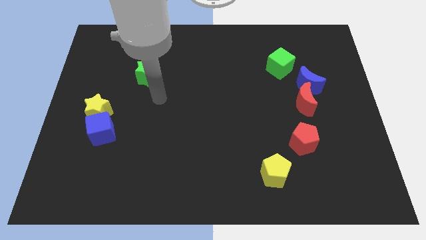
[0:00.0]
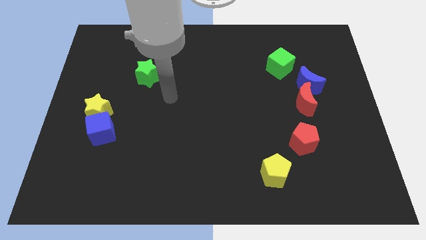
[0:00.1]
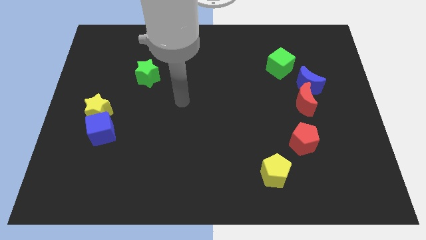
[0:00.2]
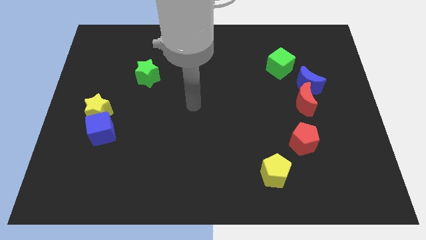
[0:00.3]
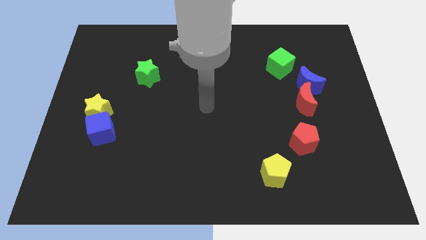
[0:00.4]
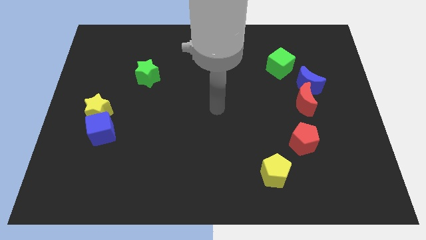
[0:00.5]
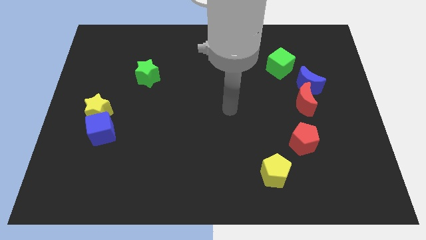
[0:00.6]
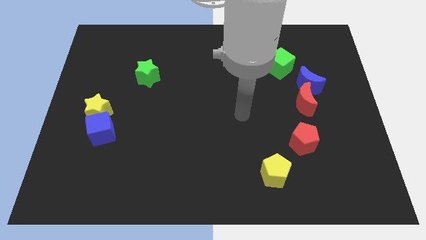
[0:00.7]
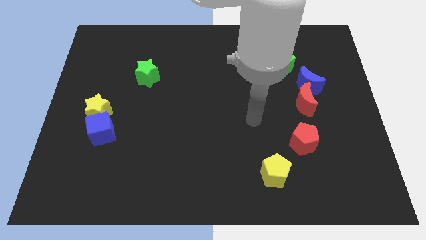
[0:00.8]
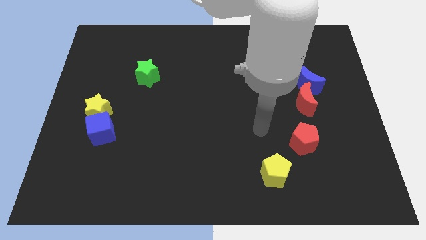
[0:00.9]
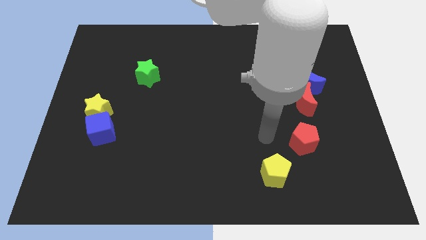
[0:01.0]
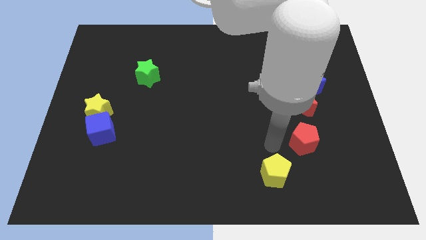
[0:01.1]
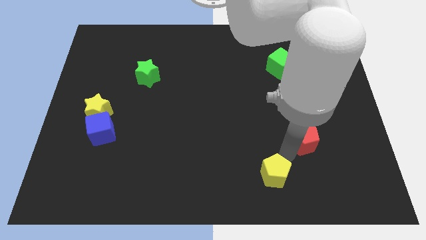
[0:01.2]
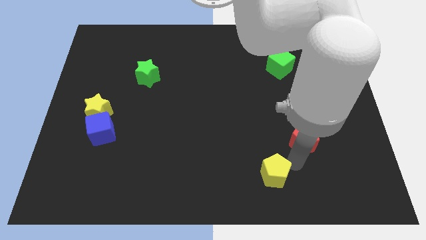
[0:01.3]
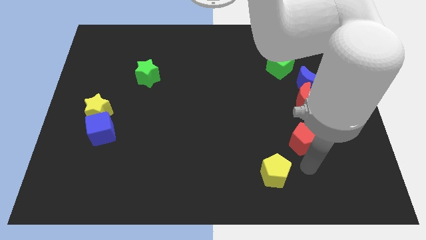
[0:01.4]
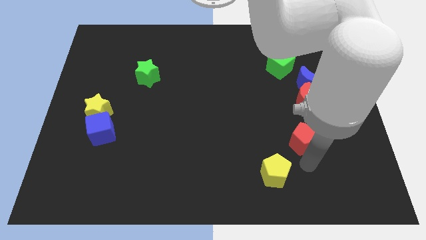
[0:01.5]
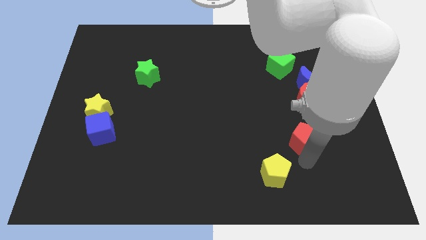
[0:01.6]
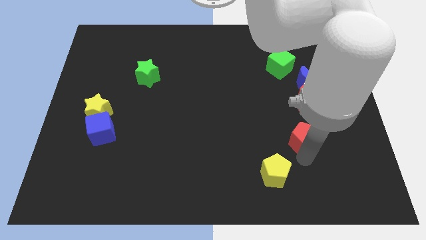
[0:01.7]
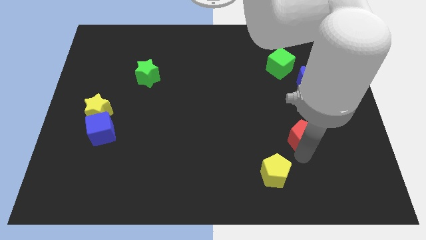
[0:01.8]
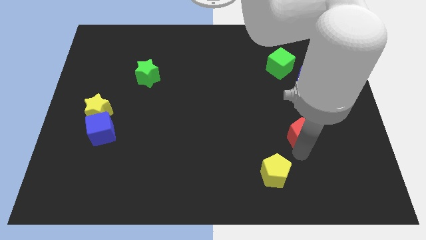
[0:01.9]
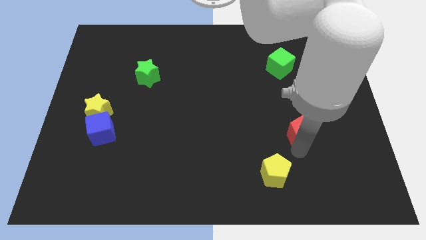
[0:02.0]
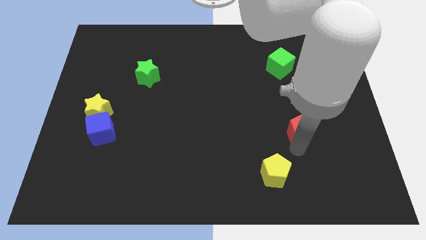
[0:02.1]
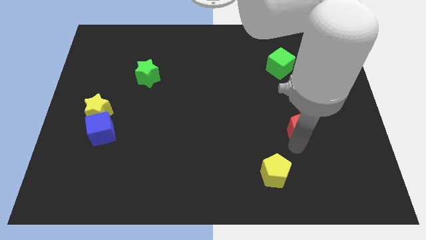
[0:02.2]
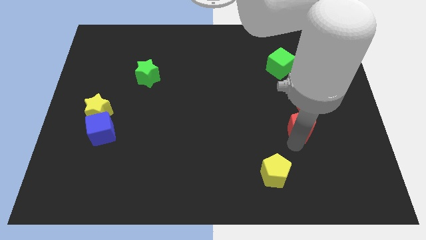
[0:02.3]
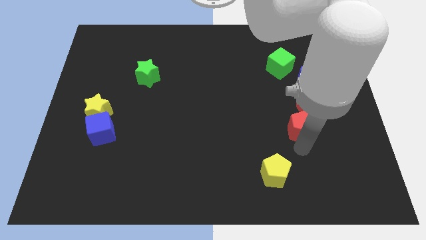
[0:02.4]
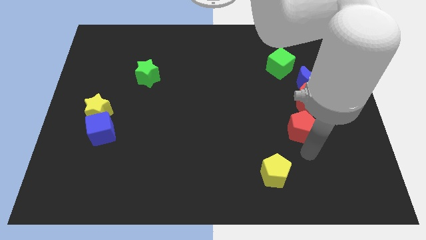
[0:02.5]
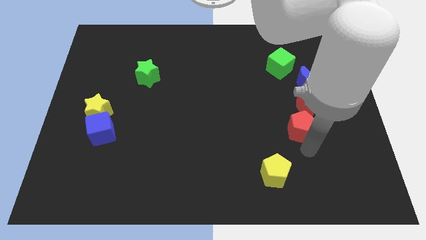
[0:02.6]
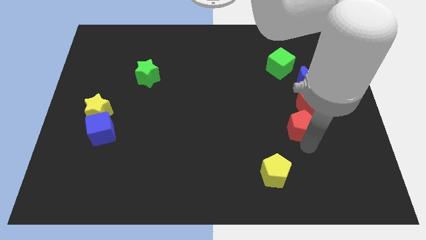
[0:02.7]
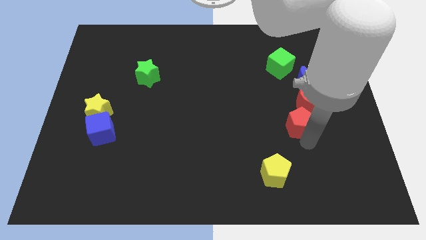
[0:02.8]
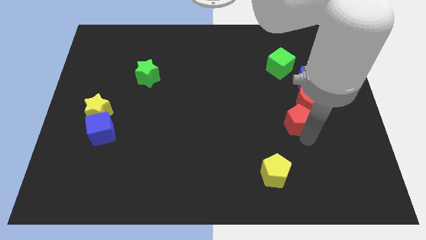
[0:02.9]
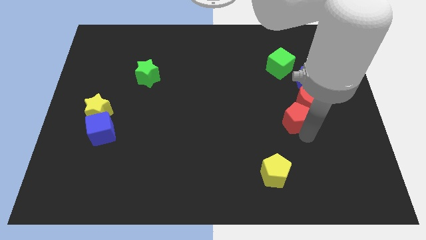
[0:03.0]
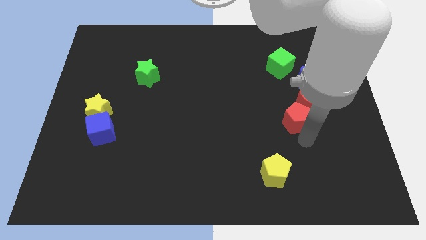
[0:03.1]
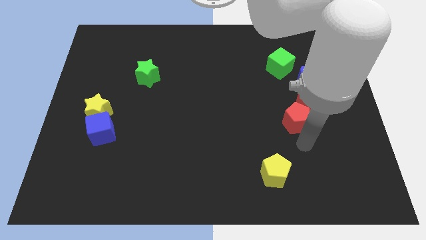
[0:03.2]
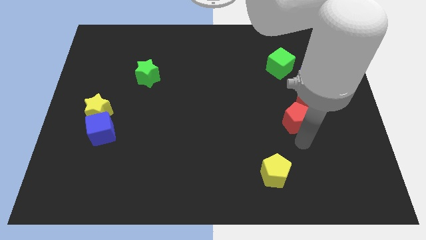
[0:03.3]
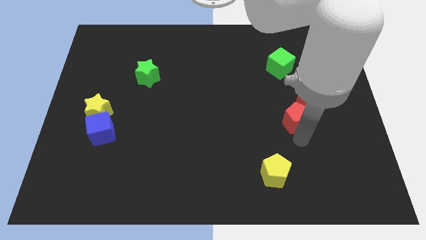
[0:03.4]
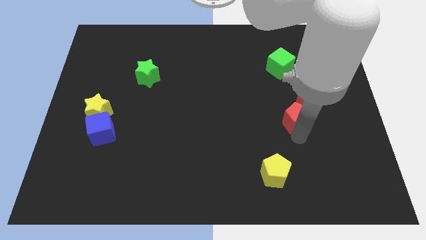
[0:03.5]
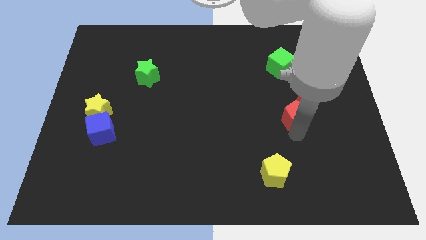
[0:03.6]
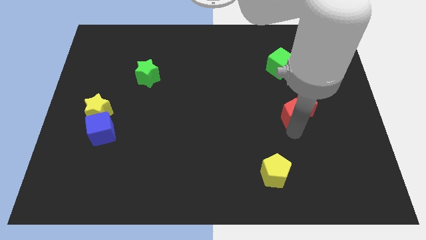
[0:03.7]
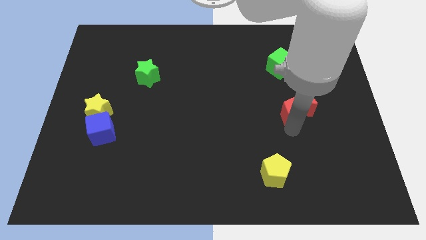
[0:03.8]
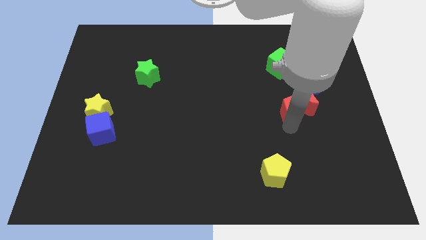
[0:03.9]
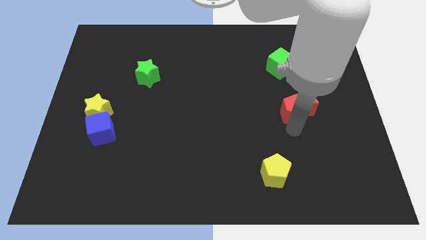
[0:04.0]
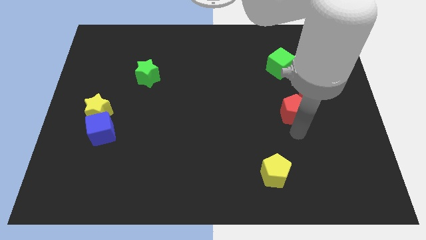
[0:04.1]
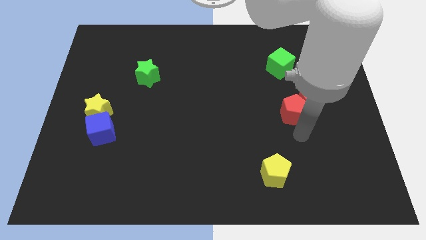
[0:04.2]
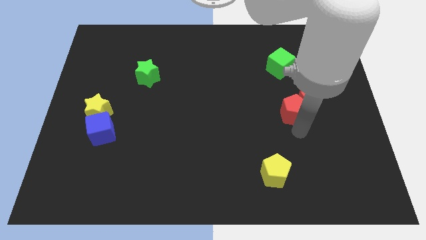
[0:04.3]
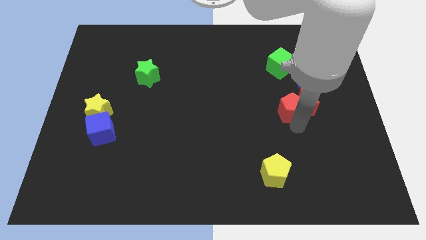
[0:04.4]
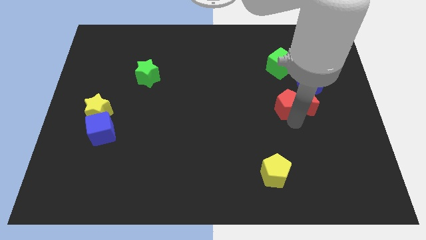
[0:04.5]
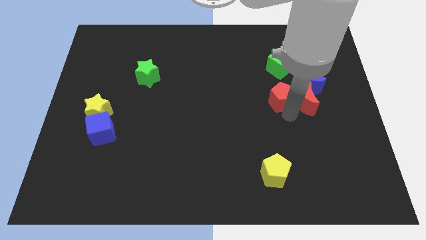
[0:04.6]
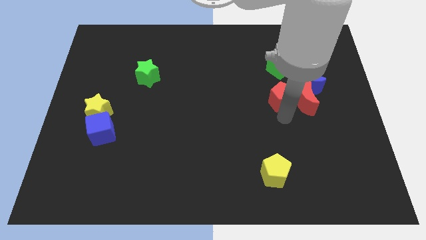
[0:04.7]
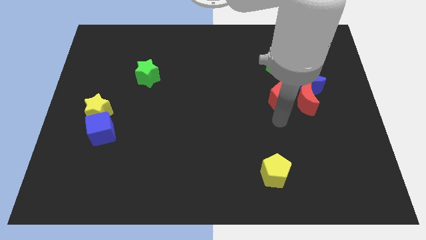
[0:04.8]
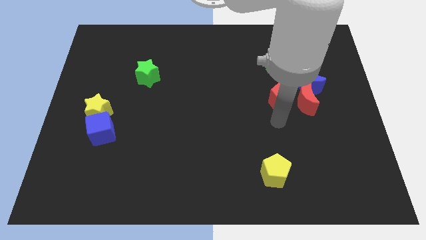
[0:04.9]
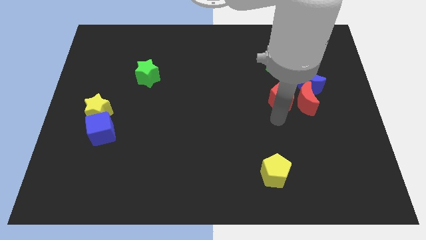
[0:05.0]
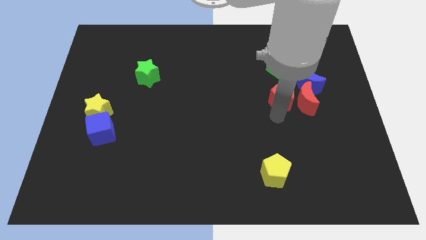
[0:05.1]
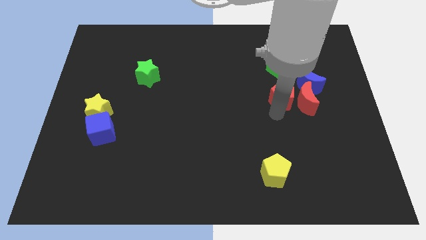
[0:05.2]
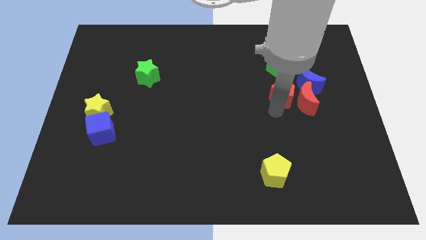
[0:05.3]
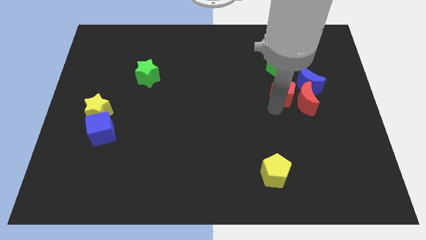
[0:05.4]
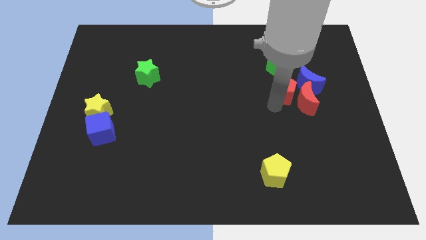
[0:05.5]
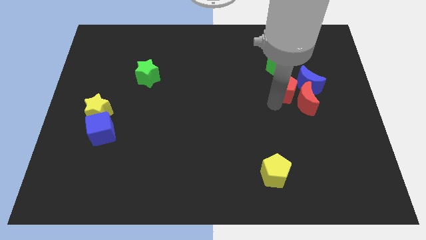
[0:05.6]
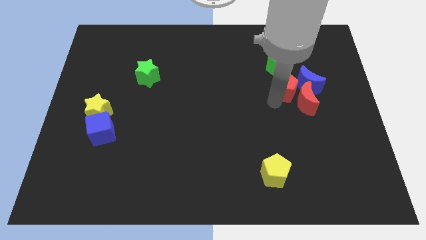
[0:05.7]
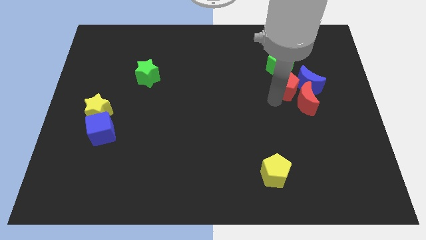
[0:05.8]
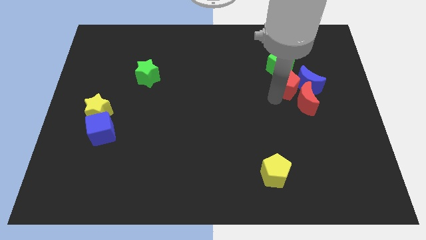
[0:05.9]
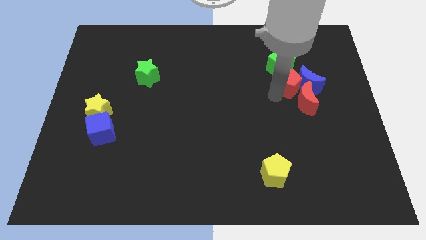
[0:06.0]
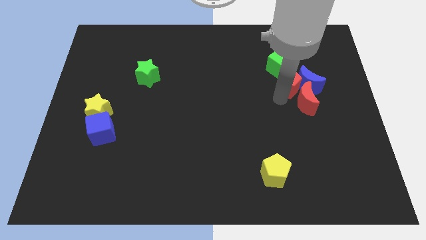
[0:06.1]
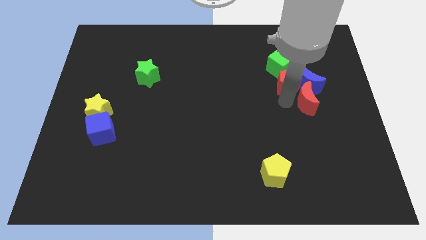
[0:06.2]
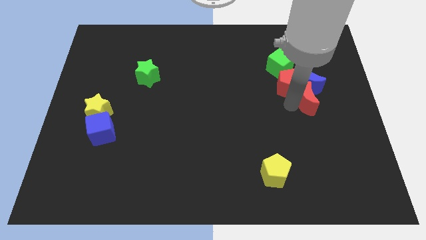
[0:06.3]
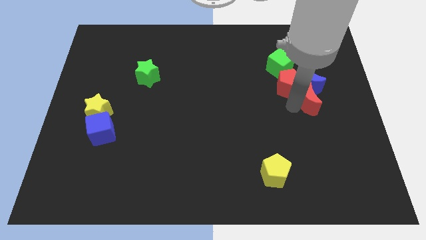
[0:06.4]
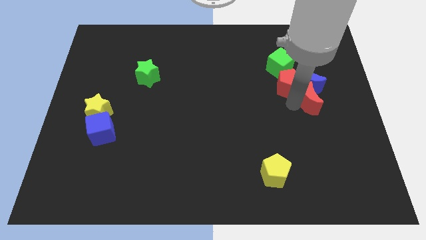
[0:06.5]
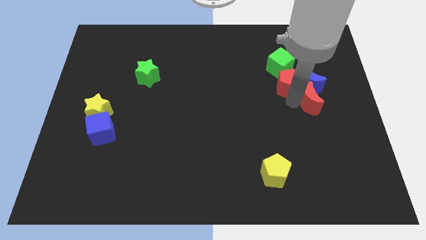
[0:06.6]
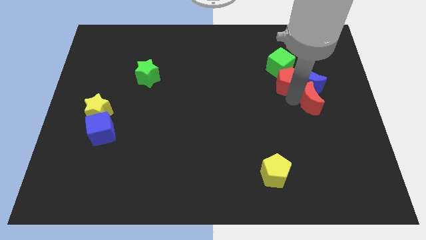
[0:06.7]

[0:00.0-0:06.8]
slide the red pentagon to the green cube

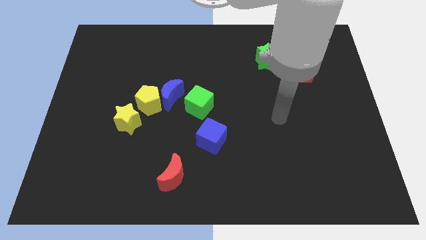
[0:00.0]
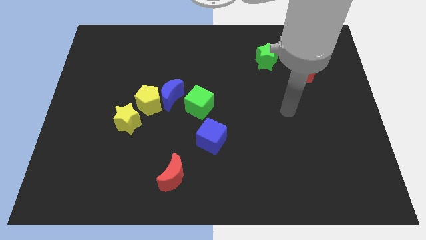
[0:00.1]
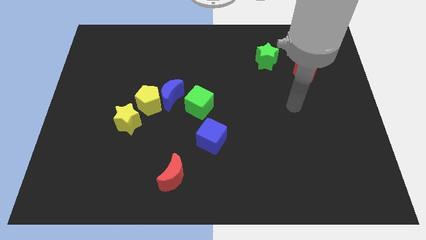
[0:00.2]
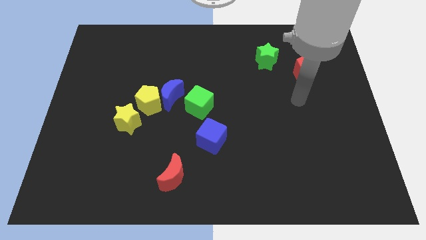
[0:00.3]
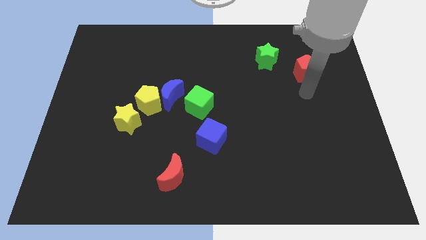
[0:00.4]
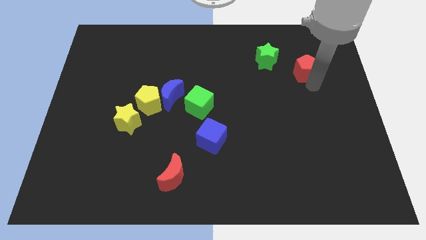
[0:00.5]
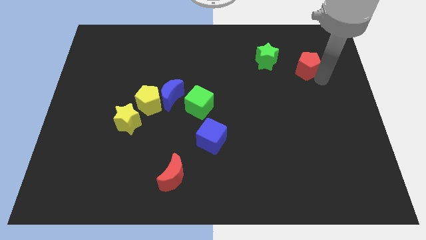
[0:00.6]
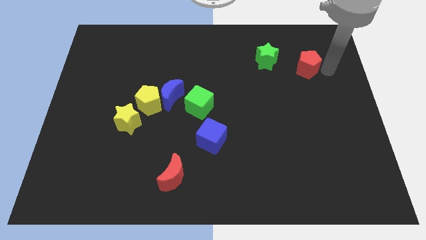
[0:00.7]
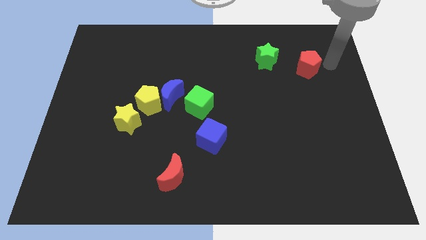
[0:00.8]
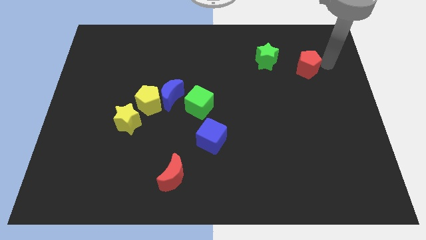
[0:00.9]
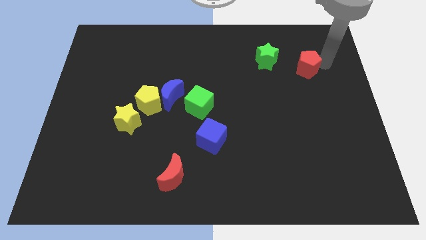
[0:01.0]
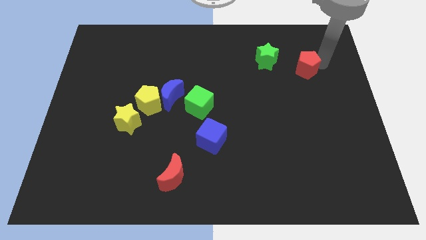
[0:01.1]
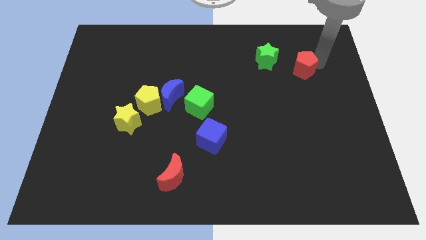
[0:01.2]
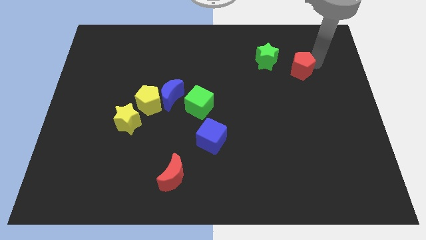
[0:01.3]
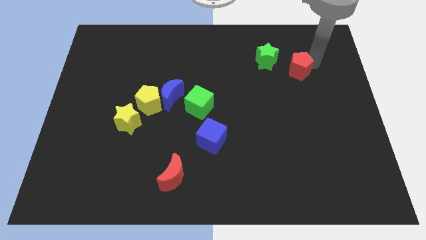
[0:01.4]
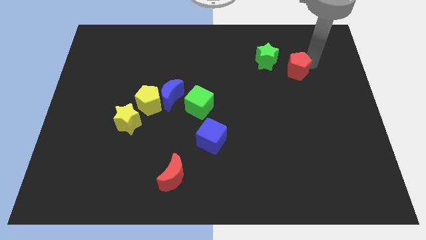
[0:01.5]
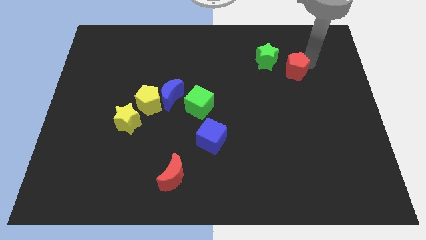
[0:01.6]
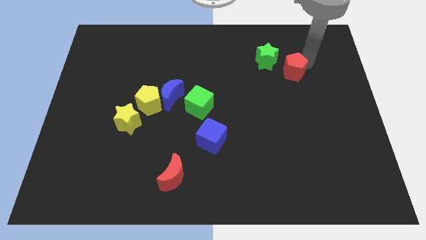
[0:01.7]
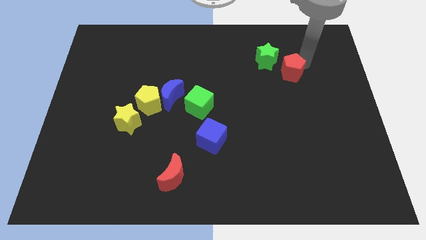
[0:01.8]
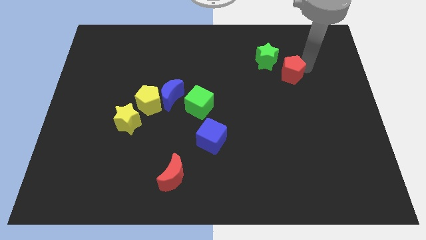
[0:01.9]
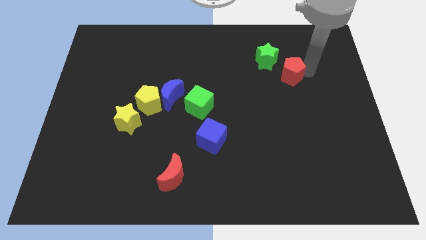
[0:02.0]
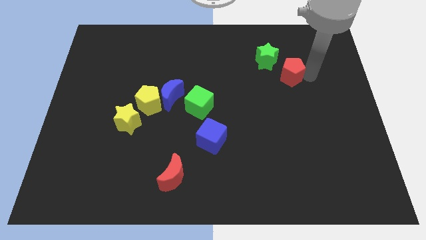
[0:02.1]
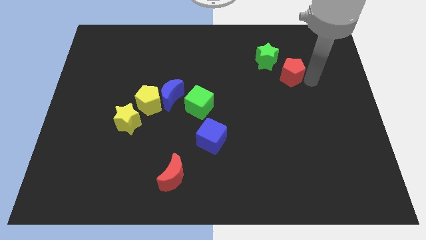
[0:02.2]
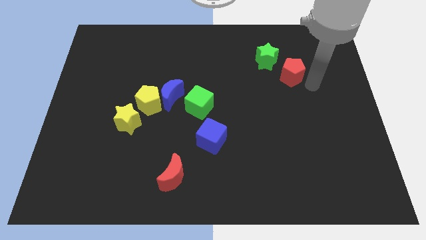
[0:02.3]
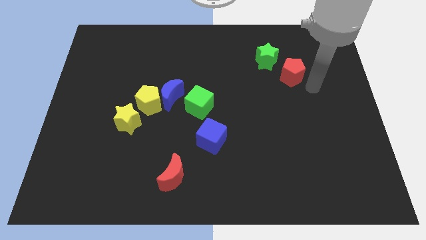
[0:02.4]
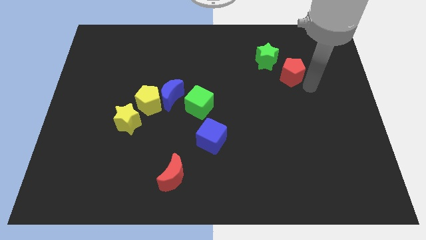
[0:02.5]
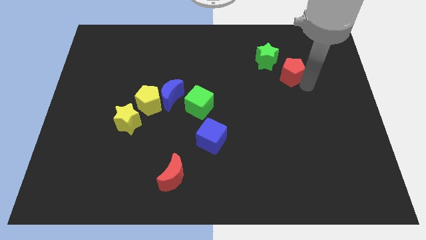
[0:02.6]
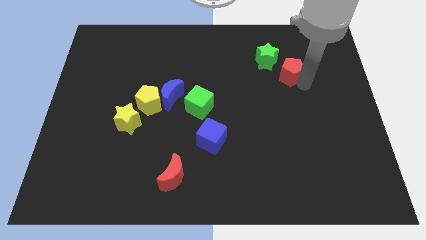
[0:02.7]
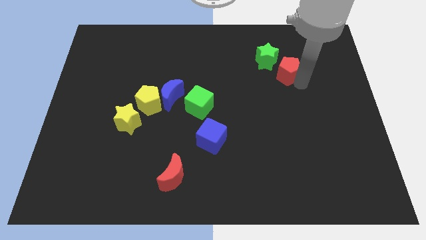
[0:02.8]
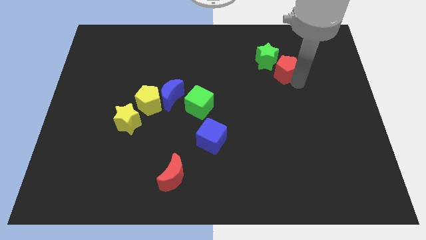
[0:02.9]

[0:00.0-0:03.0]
move the red pentagon to the green star
